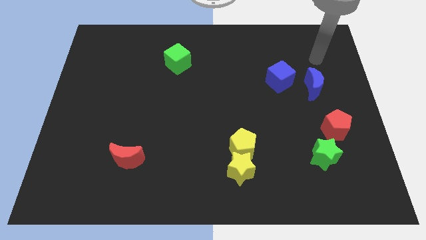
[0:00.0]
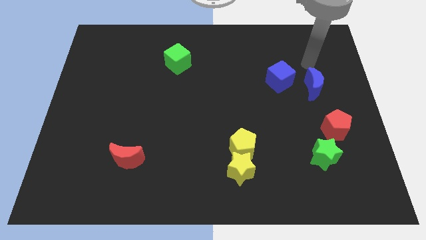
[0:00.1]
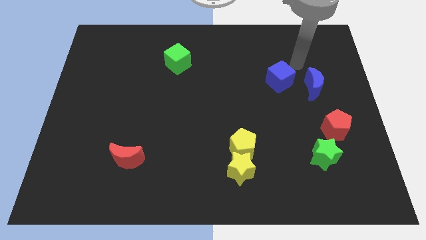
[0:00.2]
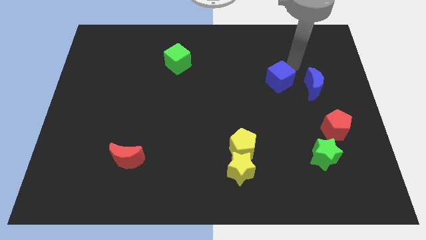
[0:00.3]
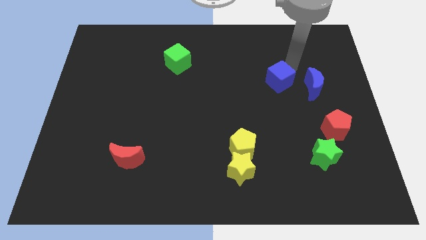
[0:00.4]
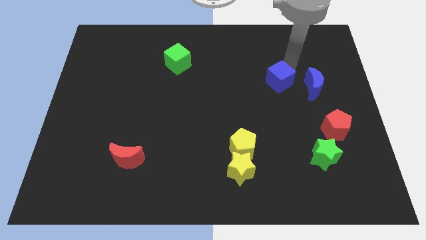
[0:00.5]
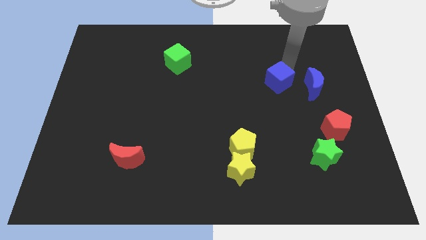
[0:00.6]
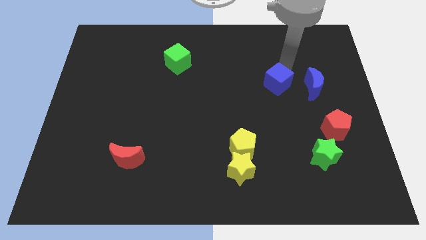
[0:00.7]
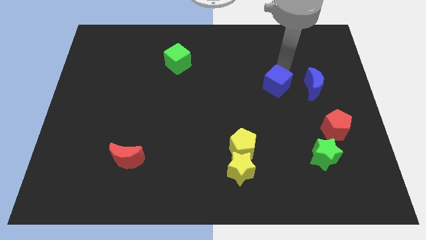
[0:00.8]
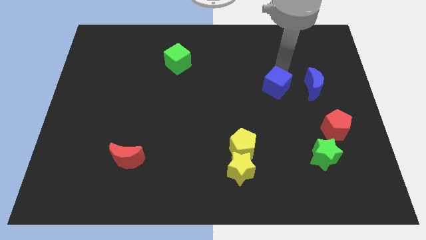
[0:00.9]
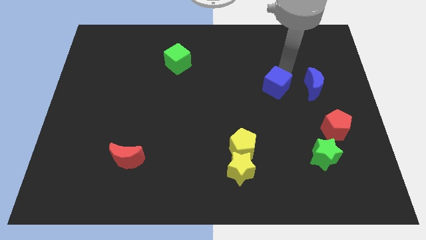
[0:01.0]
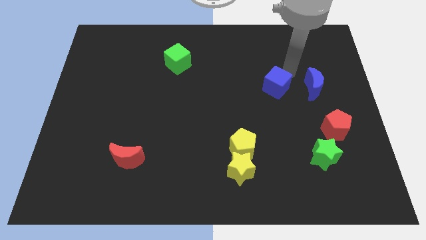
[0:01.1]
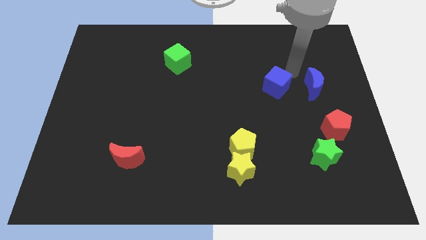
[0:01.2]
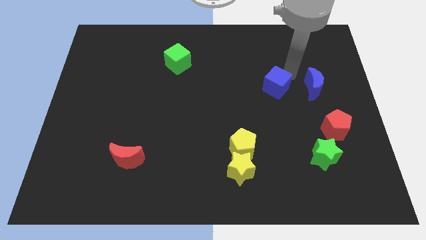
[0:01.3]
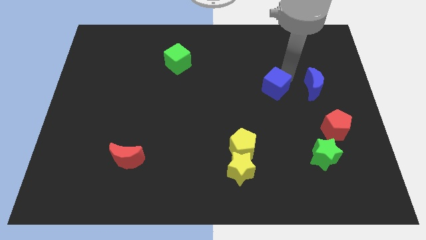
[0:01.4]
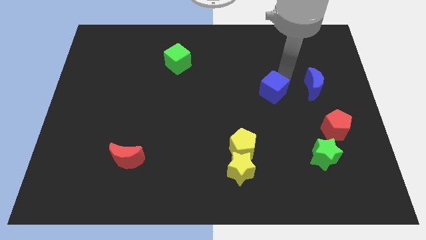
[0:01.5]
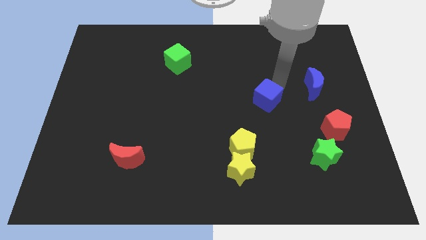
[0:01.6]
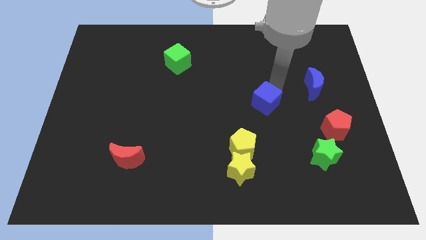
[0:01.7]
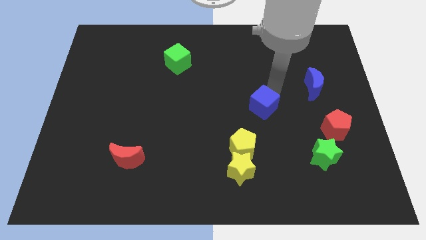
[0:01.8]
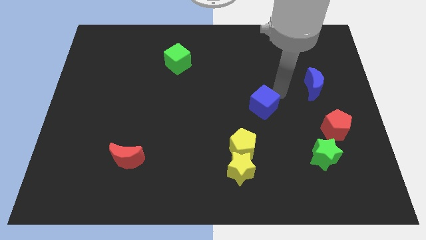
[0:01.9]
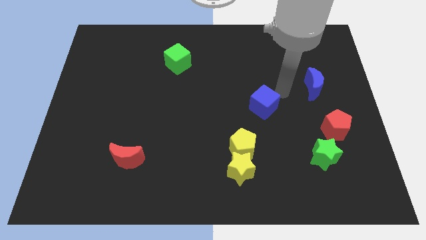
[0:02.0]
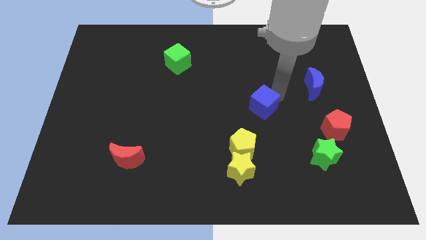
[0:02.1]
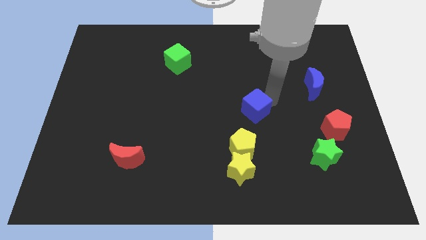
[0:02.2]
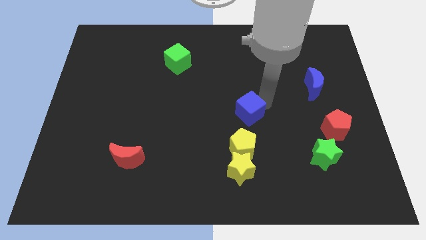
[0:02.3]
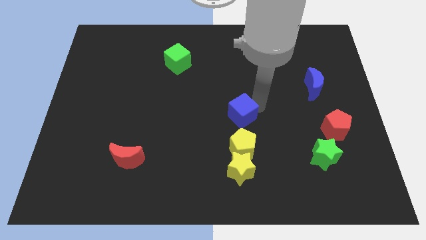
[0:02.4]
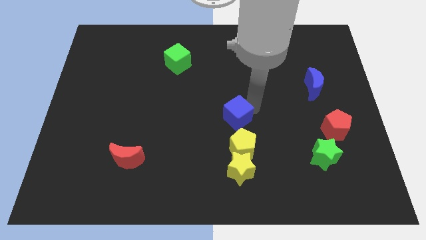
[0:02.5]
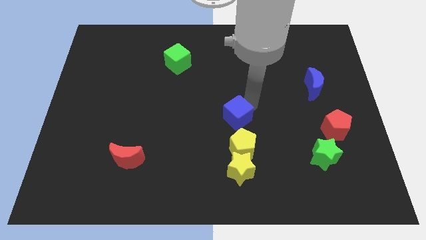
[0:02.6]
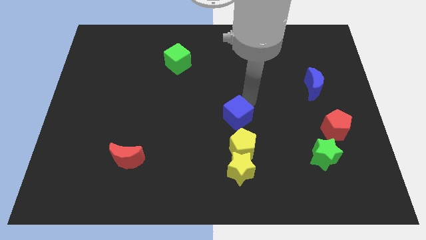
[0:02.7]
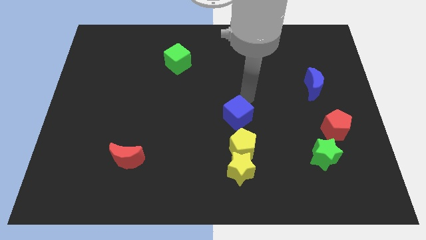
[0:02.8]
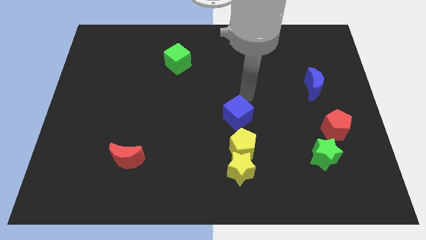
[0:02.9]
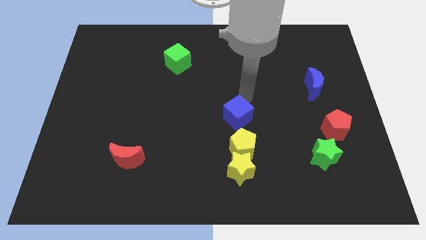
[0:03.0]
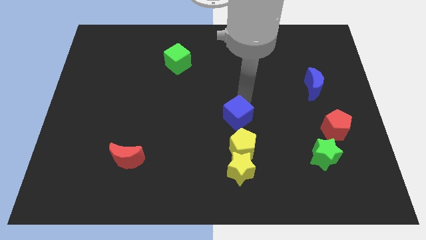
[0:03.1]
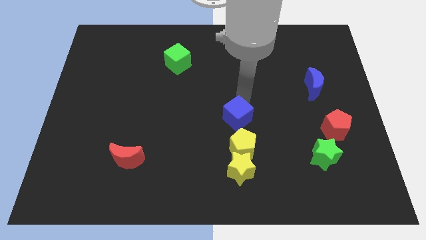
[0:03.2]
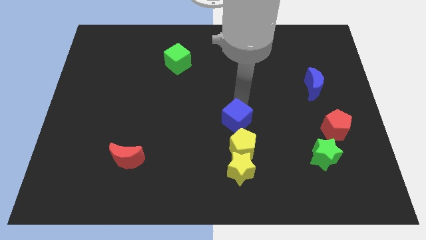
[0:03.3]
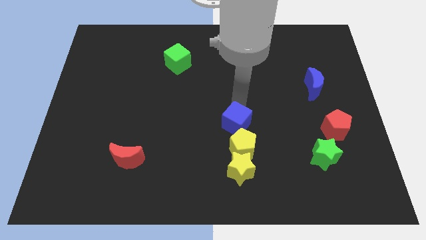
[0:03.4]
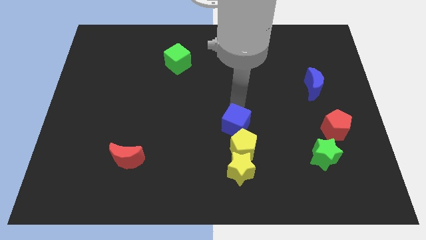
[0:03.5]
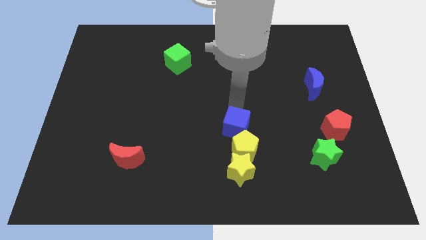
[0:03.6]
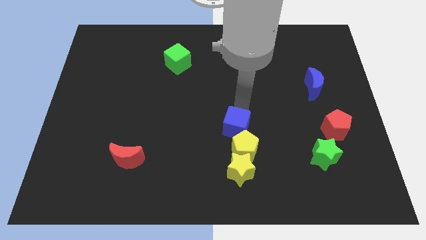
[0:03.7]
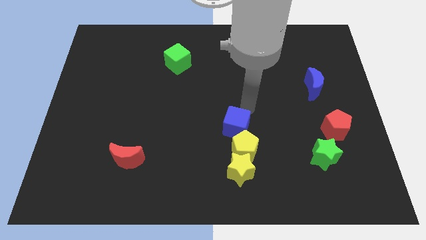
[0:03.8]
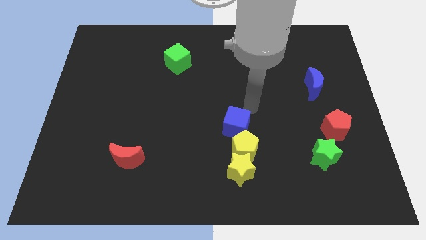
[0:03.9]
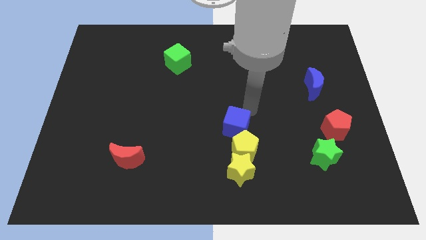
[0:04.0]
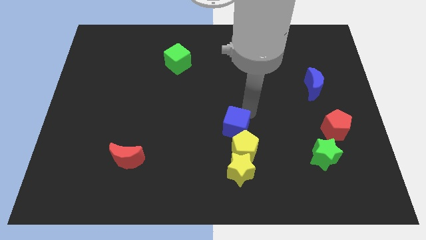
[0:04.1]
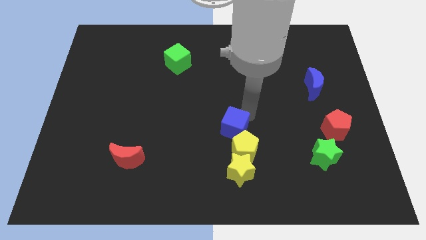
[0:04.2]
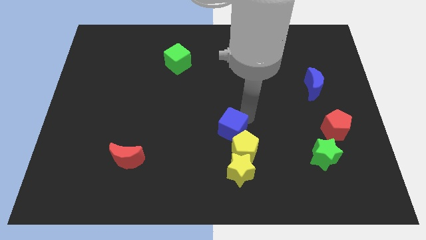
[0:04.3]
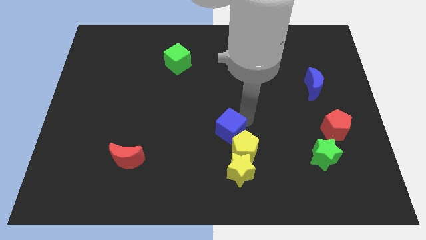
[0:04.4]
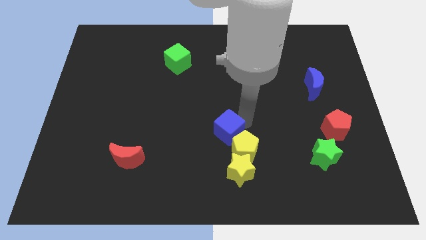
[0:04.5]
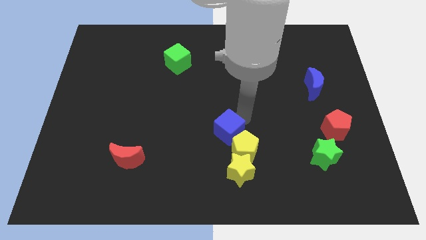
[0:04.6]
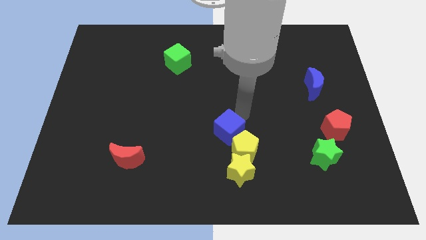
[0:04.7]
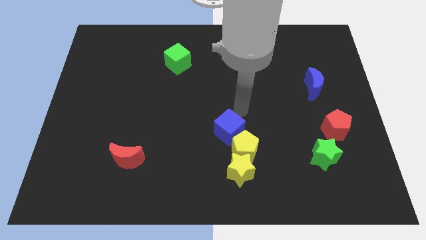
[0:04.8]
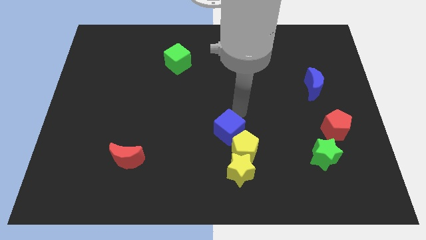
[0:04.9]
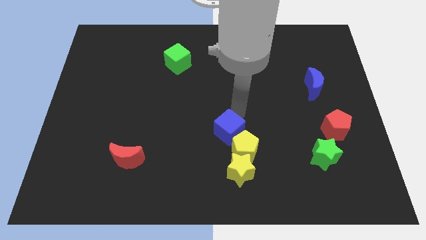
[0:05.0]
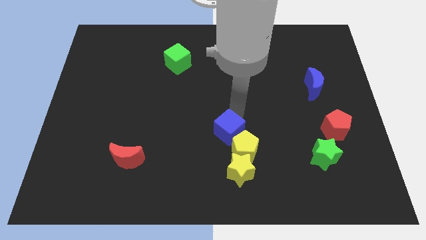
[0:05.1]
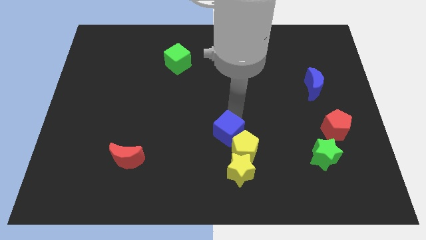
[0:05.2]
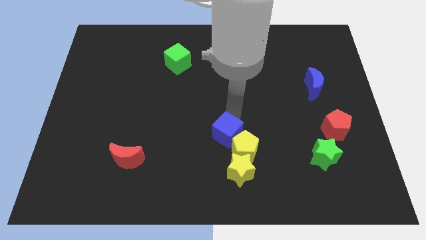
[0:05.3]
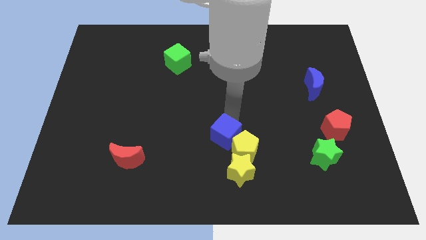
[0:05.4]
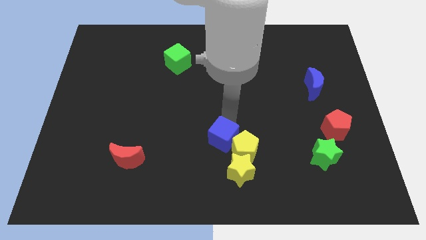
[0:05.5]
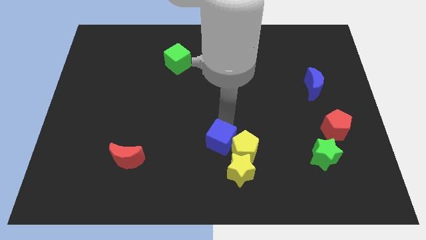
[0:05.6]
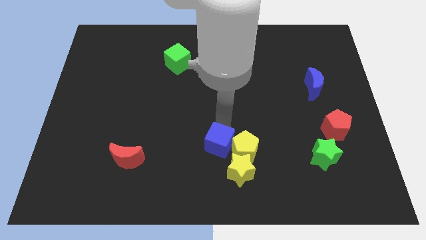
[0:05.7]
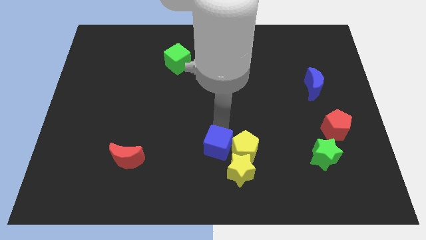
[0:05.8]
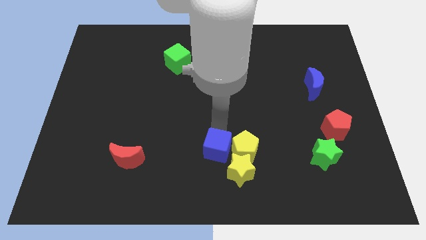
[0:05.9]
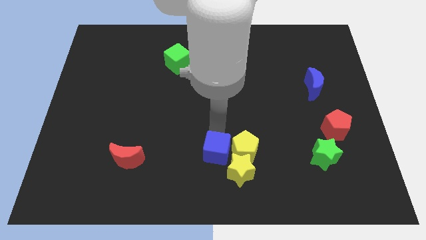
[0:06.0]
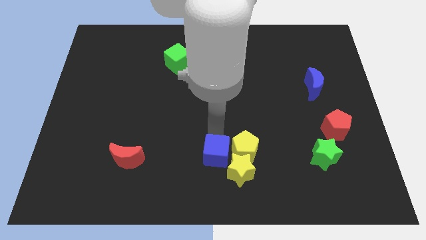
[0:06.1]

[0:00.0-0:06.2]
push the blue cube to the bottom side

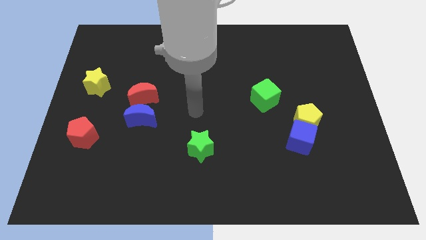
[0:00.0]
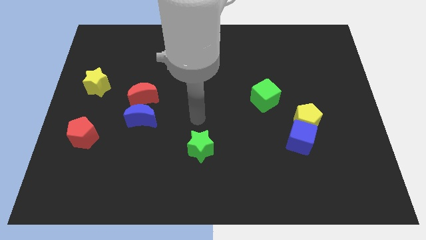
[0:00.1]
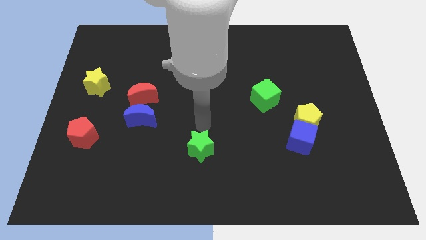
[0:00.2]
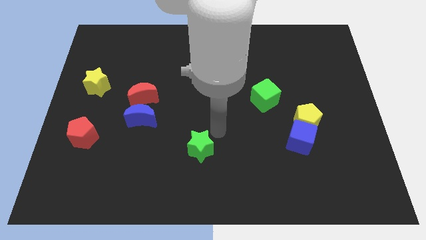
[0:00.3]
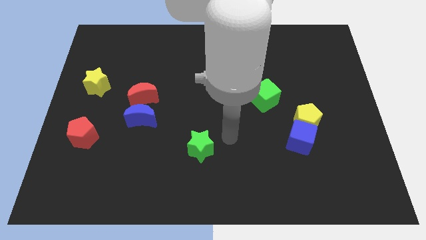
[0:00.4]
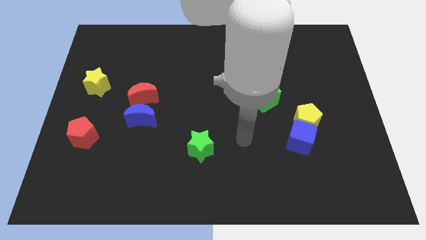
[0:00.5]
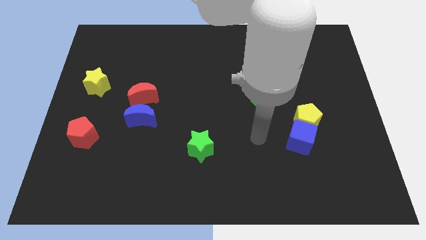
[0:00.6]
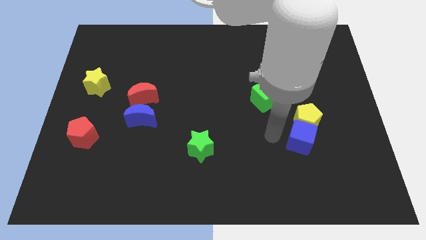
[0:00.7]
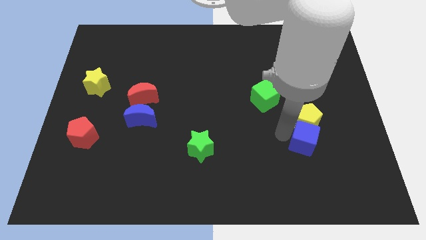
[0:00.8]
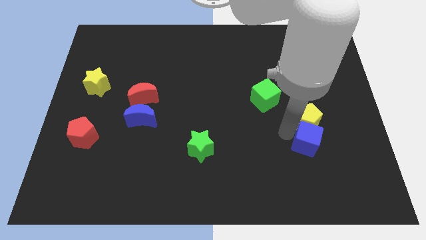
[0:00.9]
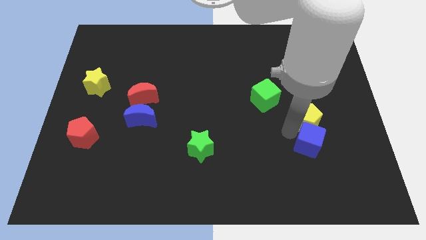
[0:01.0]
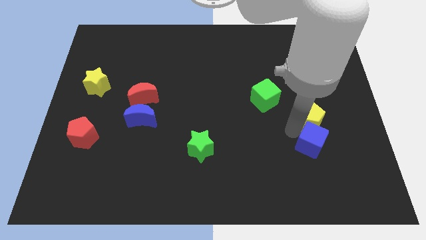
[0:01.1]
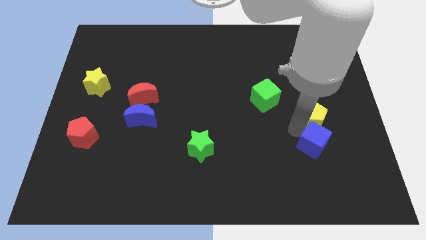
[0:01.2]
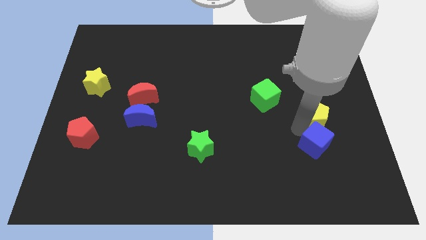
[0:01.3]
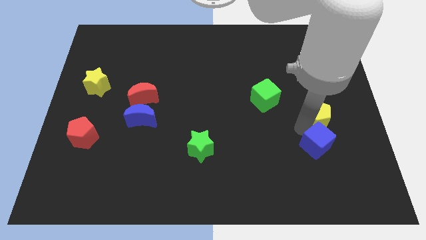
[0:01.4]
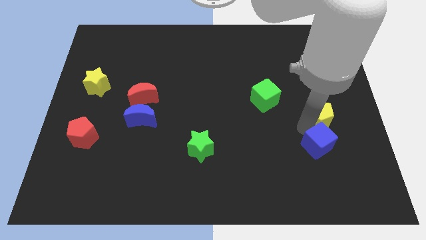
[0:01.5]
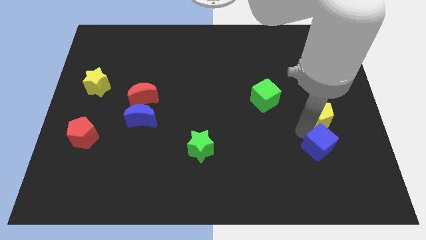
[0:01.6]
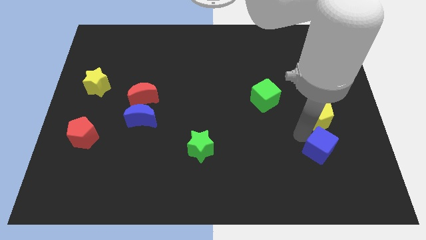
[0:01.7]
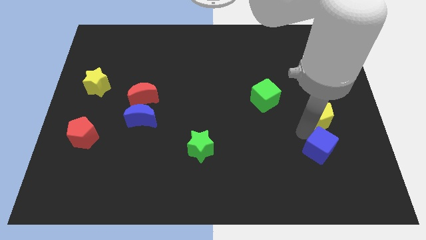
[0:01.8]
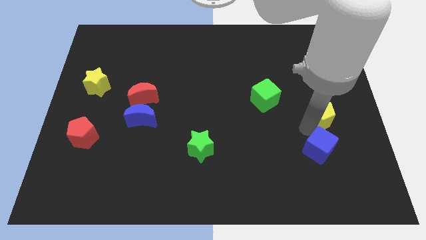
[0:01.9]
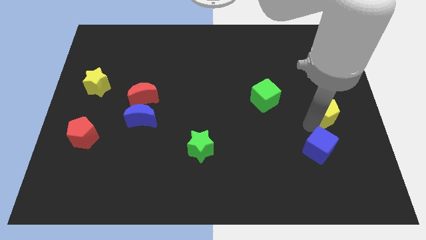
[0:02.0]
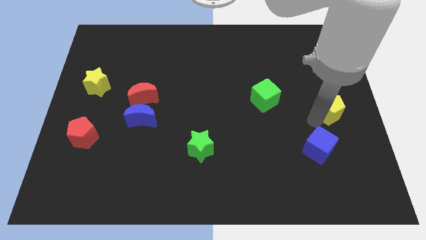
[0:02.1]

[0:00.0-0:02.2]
put the yellow pentagon to the center right
